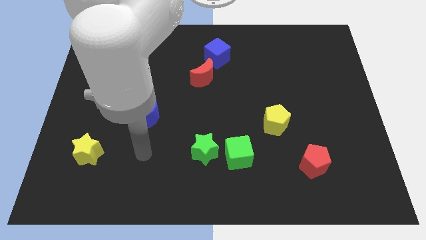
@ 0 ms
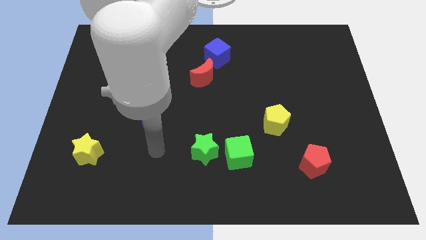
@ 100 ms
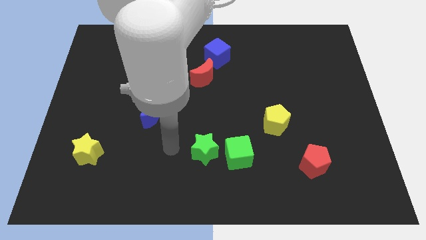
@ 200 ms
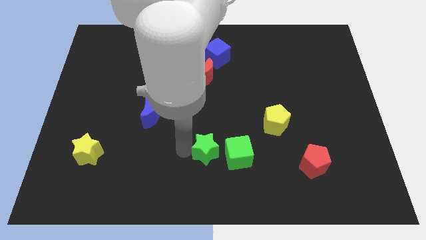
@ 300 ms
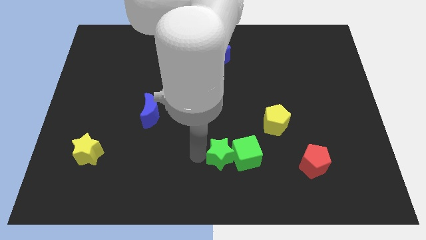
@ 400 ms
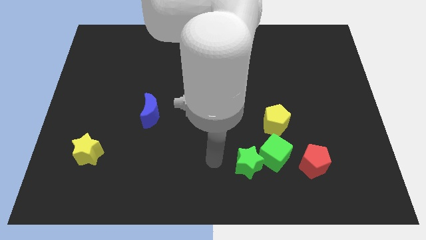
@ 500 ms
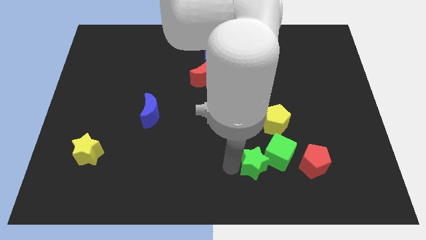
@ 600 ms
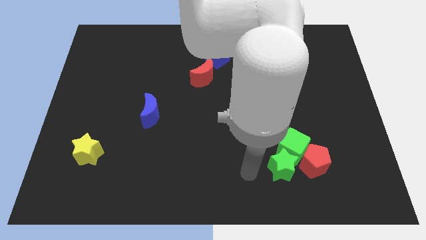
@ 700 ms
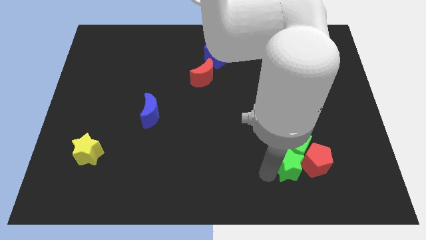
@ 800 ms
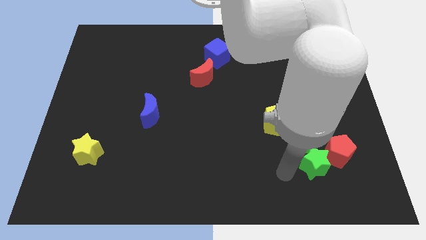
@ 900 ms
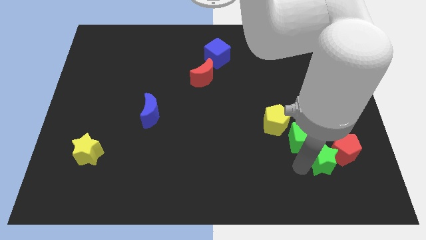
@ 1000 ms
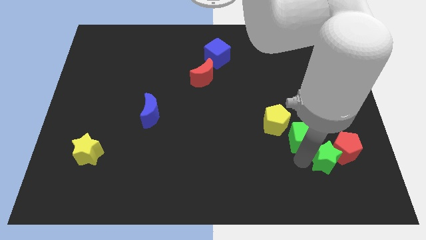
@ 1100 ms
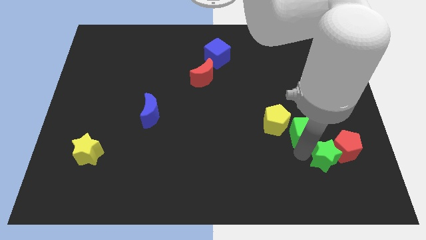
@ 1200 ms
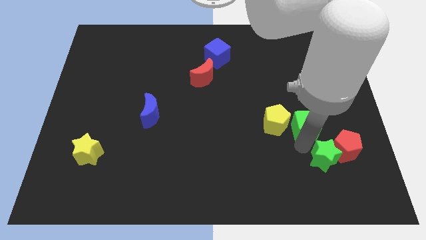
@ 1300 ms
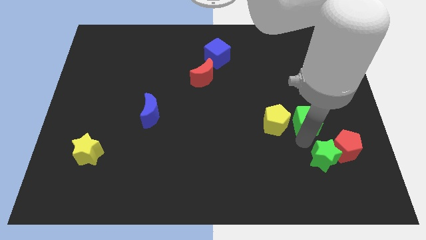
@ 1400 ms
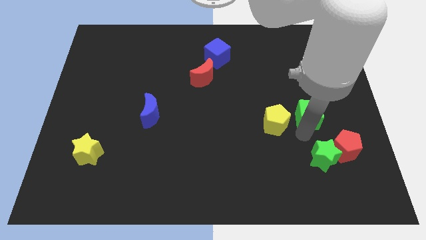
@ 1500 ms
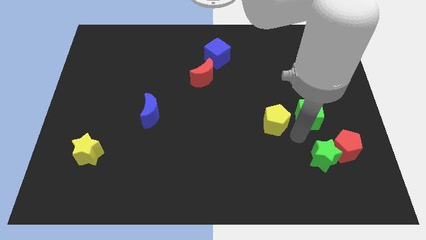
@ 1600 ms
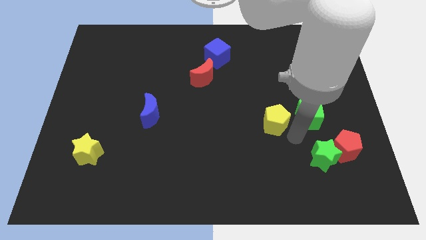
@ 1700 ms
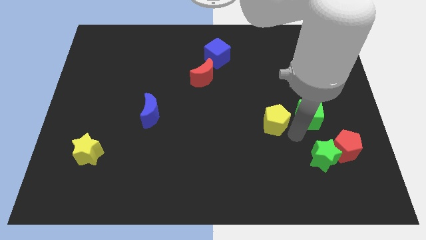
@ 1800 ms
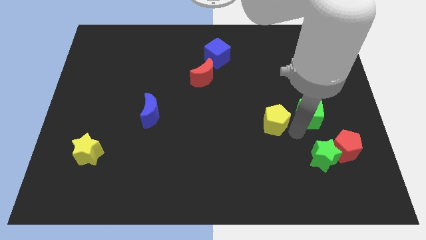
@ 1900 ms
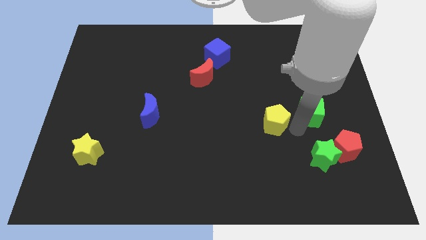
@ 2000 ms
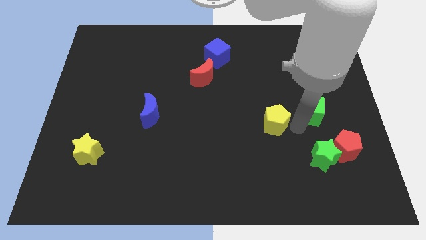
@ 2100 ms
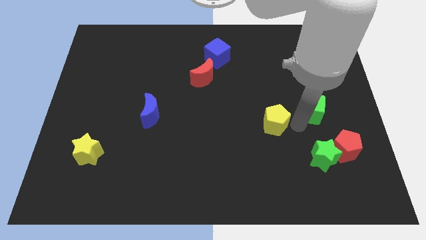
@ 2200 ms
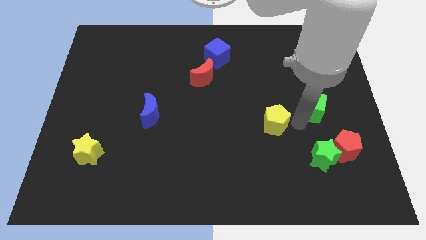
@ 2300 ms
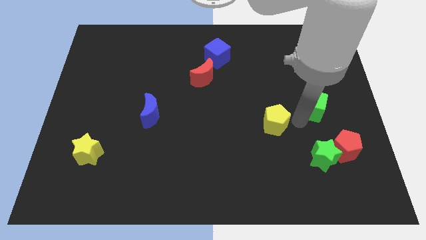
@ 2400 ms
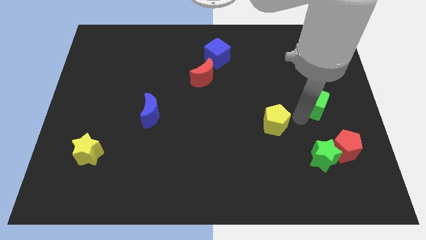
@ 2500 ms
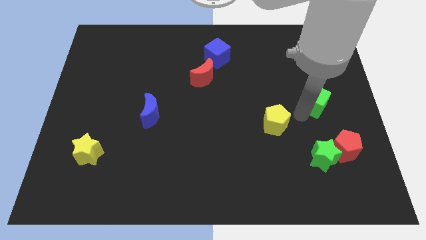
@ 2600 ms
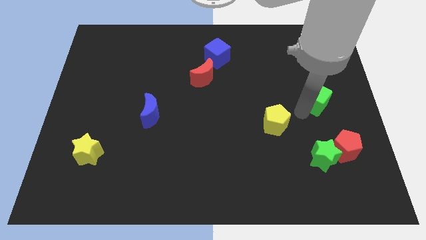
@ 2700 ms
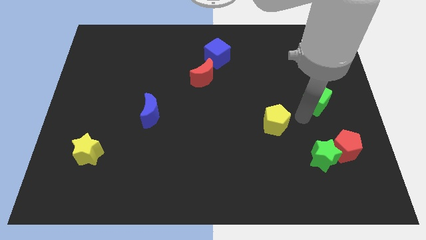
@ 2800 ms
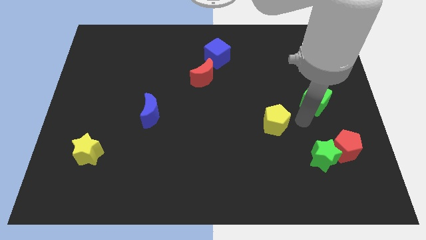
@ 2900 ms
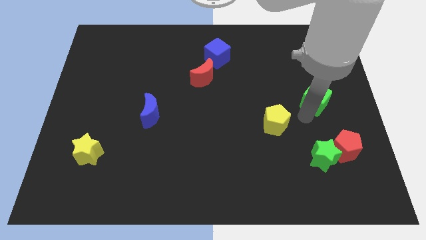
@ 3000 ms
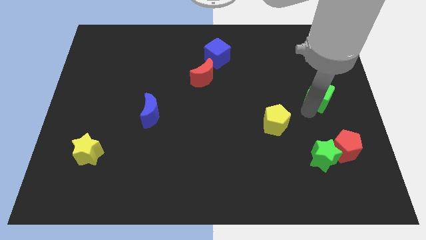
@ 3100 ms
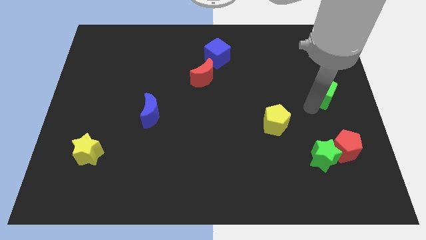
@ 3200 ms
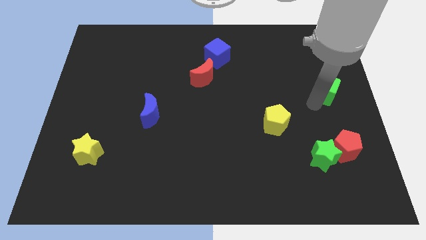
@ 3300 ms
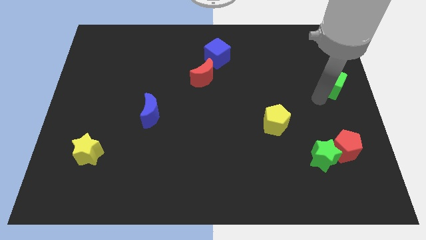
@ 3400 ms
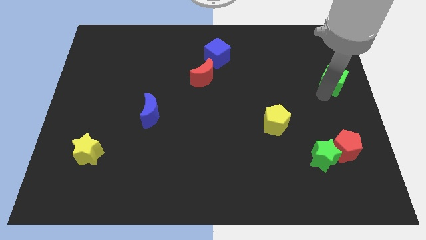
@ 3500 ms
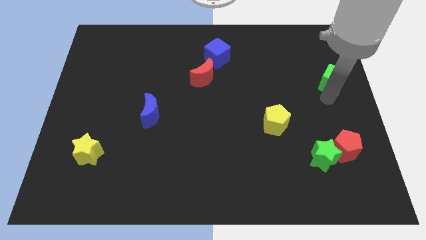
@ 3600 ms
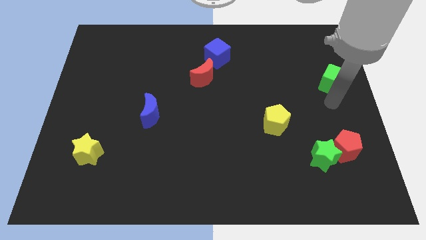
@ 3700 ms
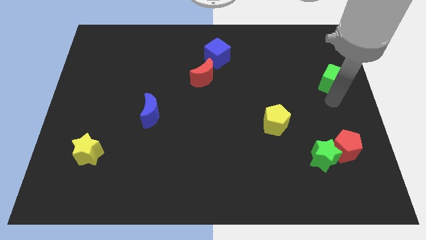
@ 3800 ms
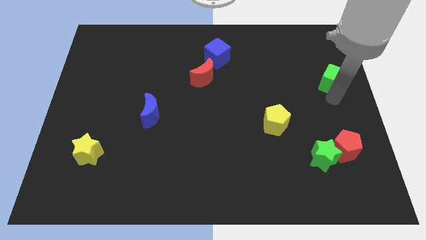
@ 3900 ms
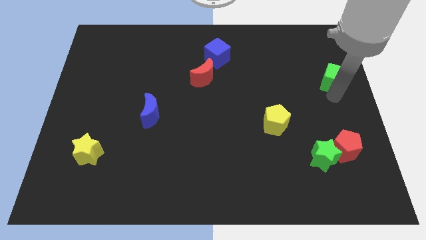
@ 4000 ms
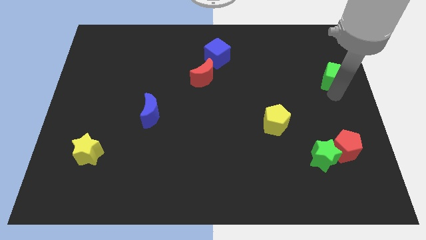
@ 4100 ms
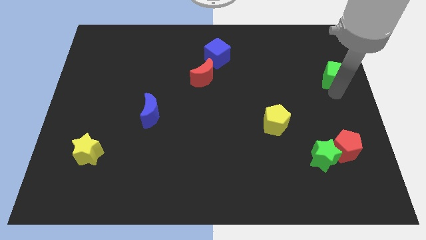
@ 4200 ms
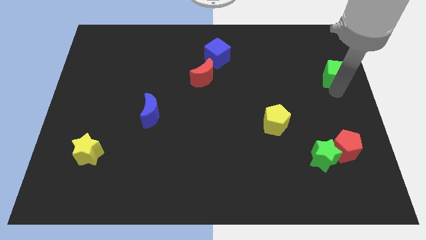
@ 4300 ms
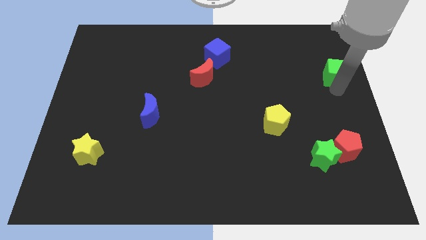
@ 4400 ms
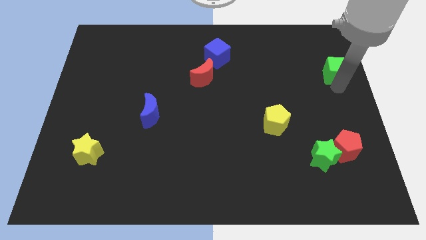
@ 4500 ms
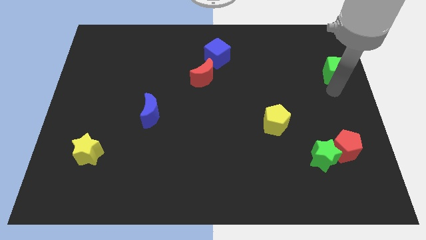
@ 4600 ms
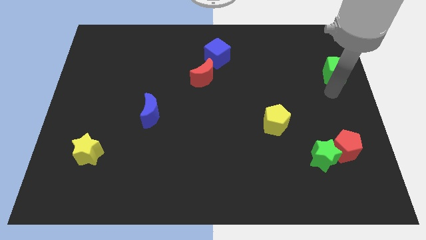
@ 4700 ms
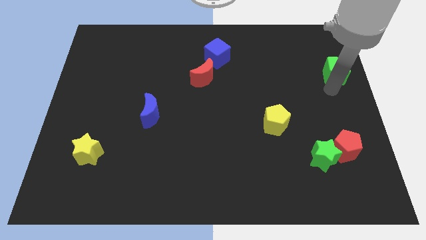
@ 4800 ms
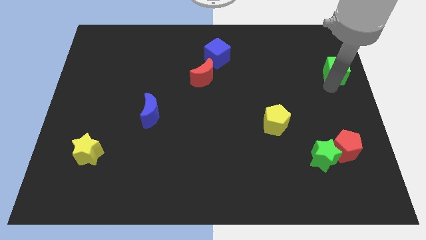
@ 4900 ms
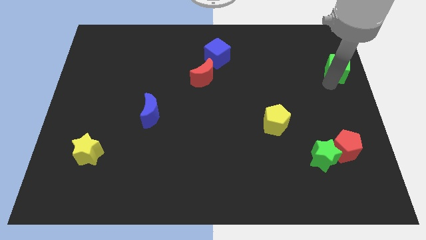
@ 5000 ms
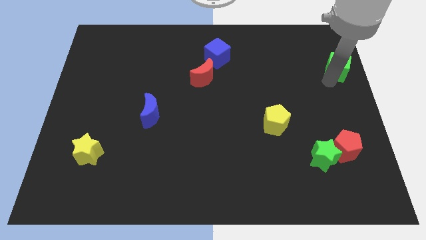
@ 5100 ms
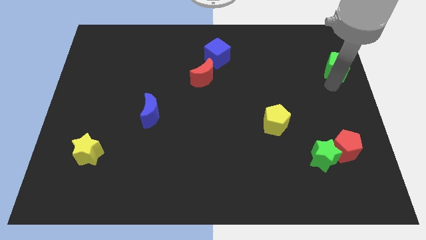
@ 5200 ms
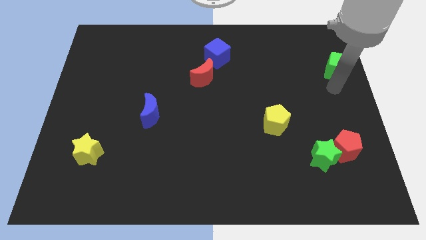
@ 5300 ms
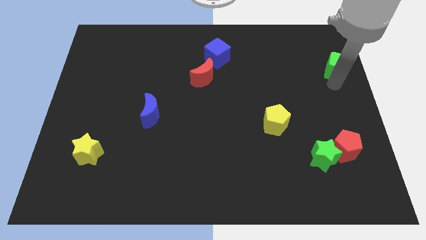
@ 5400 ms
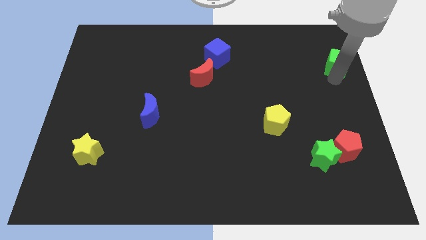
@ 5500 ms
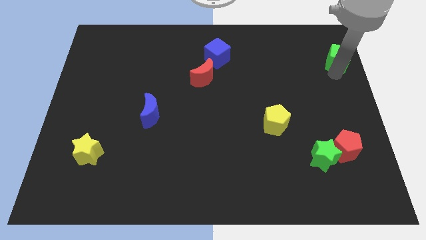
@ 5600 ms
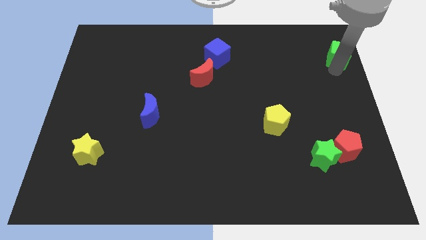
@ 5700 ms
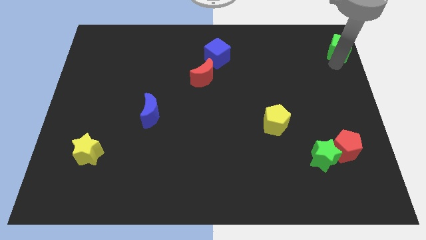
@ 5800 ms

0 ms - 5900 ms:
push the green cube to the top right corner

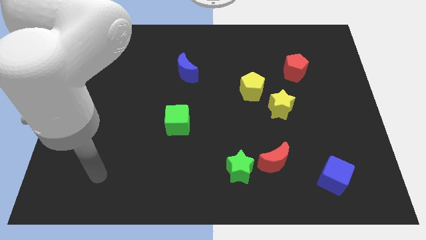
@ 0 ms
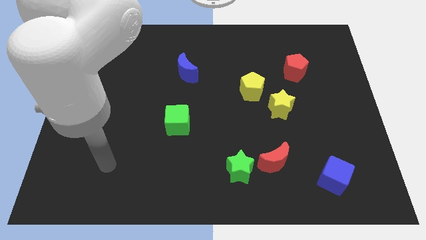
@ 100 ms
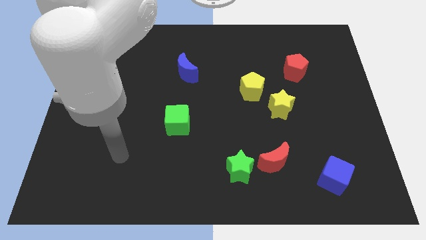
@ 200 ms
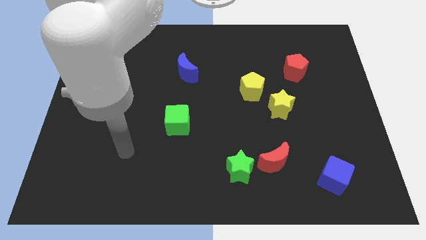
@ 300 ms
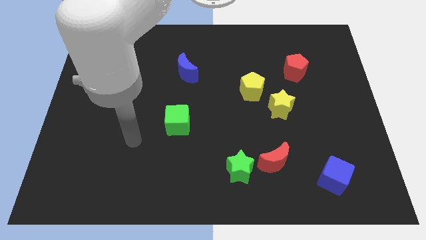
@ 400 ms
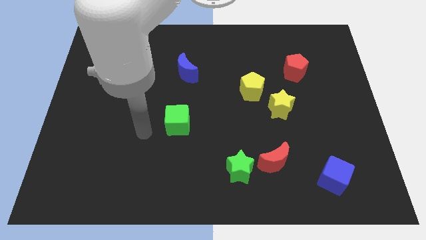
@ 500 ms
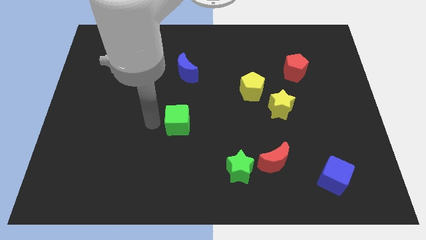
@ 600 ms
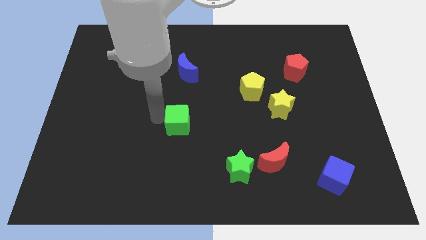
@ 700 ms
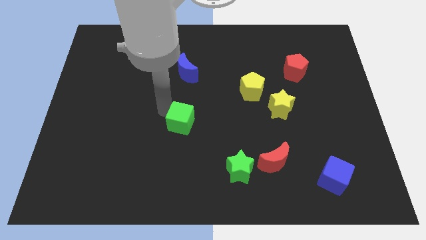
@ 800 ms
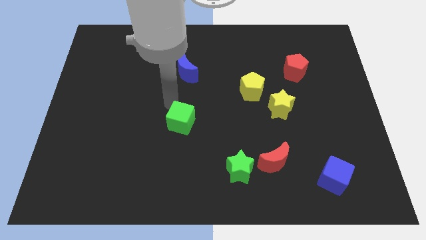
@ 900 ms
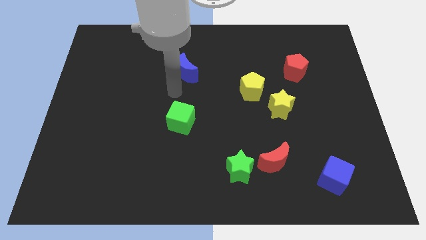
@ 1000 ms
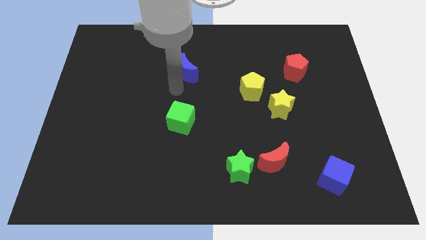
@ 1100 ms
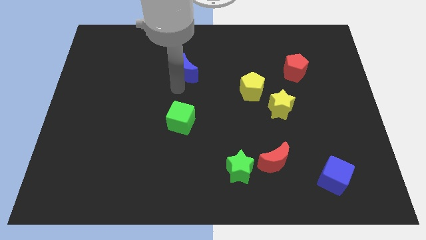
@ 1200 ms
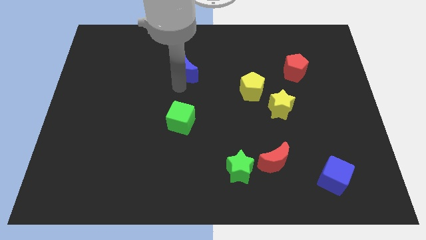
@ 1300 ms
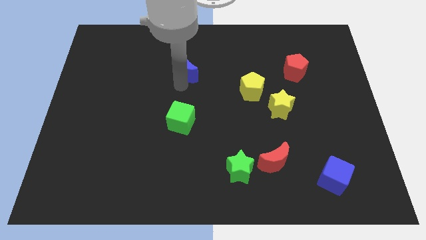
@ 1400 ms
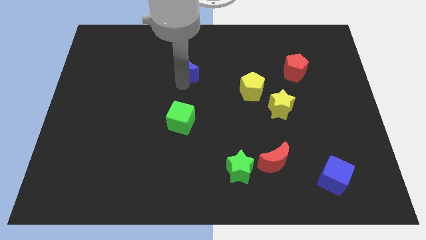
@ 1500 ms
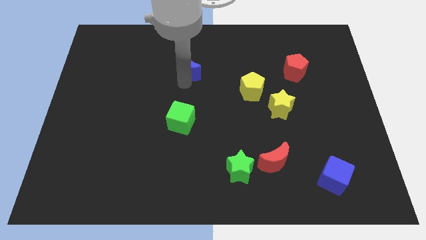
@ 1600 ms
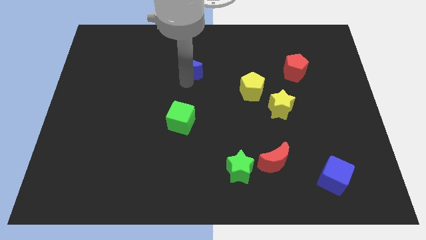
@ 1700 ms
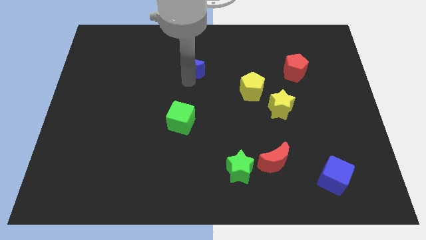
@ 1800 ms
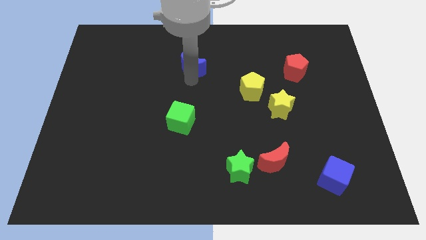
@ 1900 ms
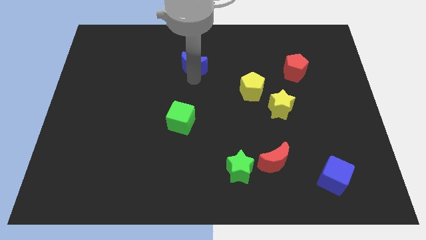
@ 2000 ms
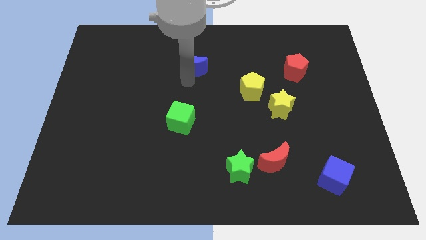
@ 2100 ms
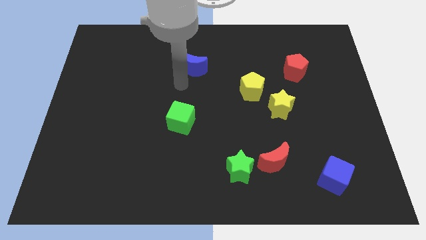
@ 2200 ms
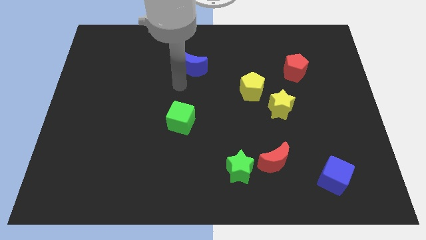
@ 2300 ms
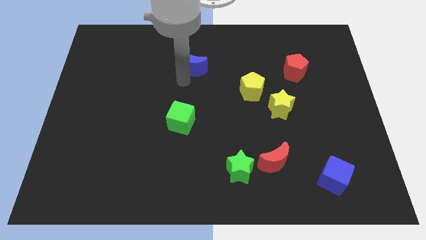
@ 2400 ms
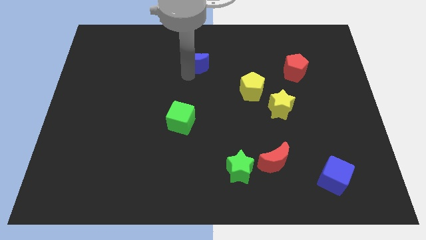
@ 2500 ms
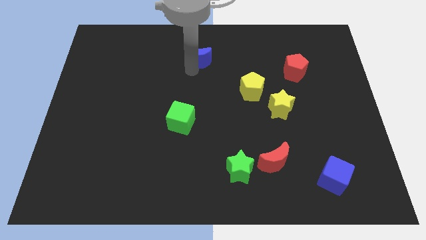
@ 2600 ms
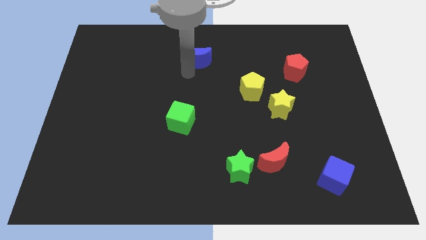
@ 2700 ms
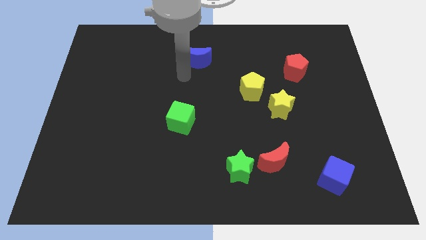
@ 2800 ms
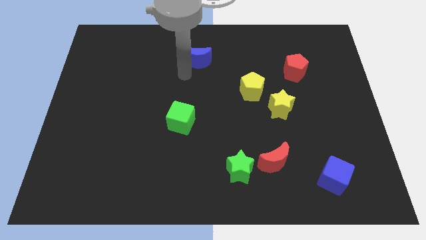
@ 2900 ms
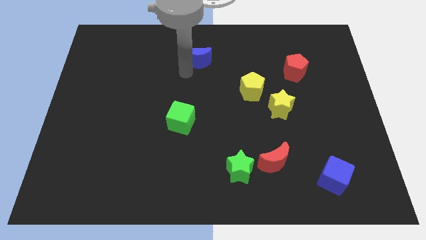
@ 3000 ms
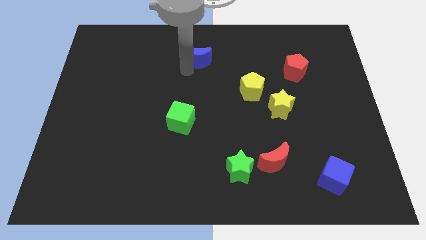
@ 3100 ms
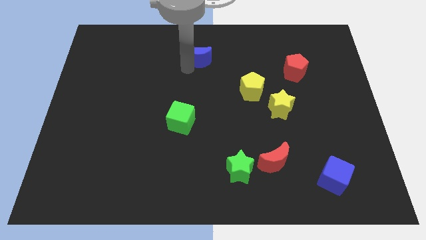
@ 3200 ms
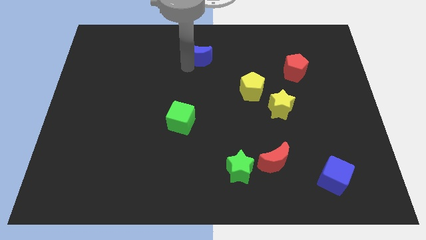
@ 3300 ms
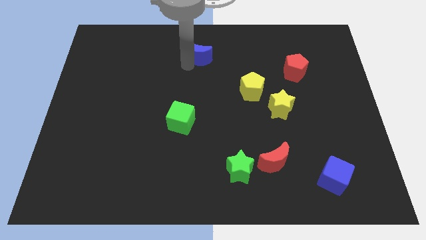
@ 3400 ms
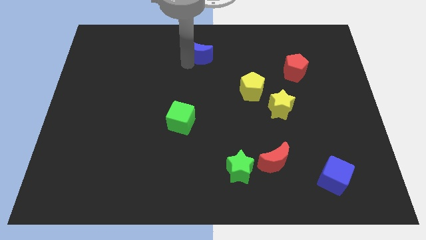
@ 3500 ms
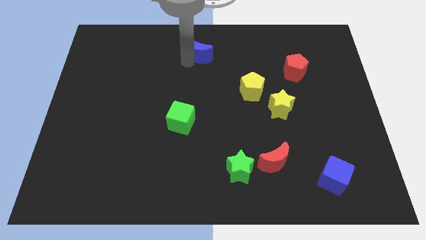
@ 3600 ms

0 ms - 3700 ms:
push the blue moon to the top side
